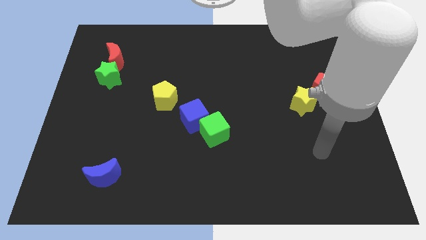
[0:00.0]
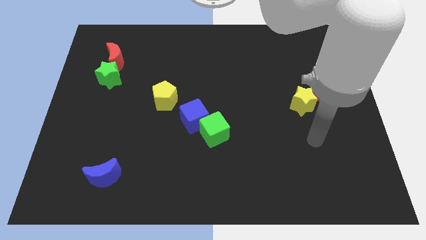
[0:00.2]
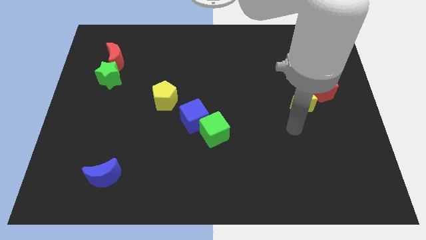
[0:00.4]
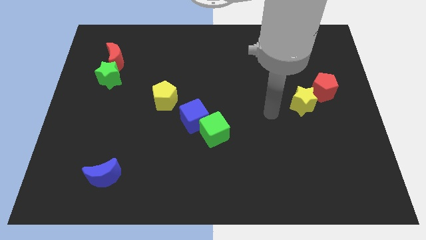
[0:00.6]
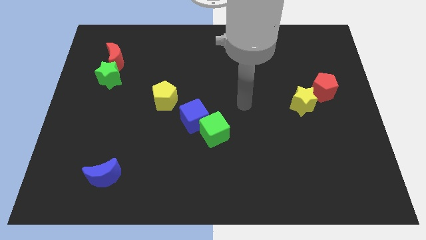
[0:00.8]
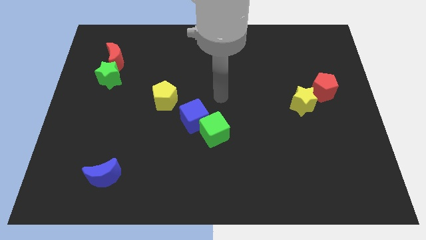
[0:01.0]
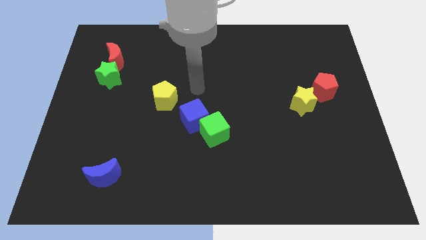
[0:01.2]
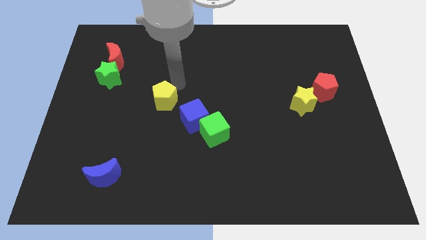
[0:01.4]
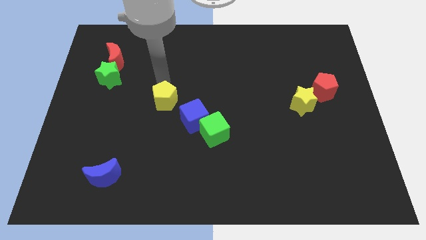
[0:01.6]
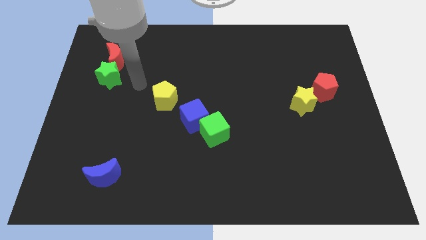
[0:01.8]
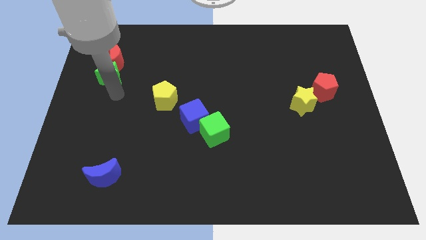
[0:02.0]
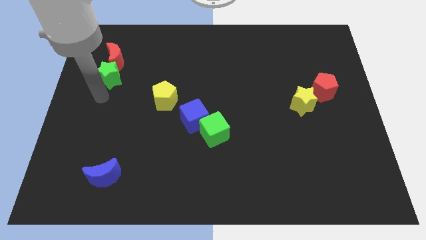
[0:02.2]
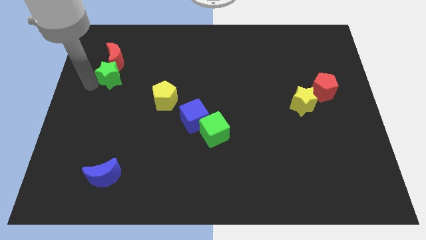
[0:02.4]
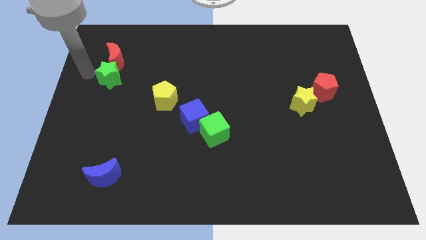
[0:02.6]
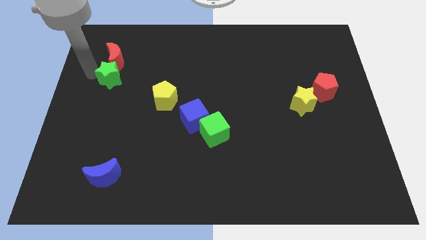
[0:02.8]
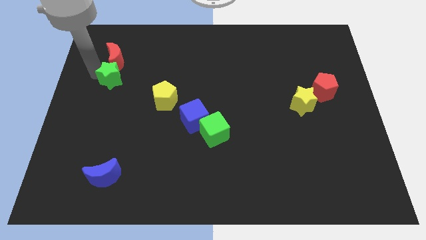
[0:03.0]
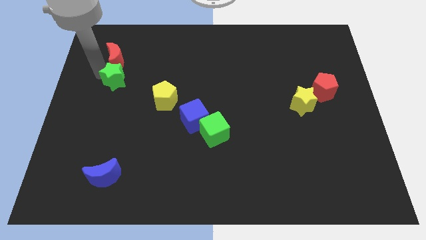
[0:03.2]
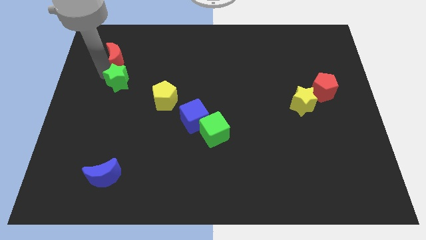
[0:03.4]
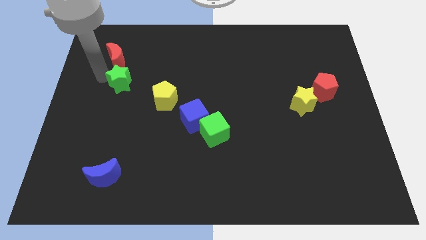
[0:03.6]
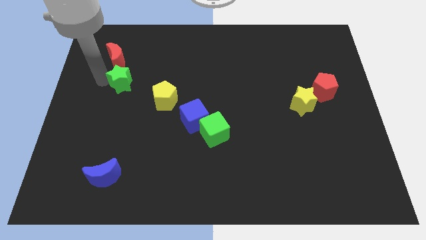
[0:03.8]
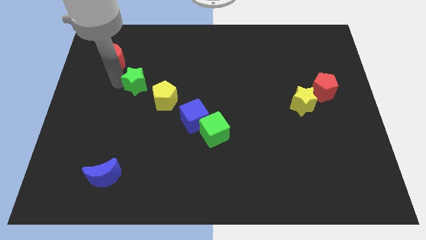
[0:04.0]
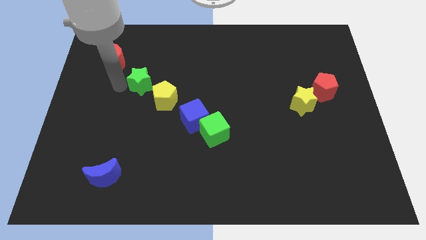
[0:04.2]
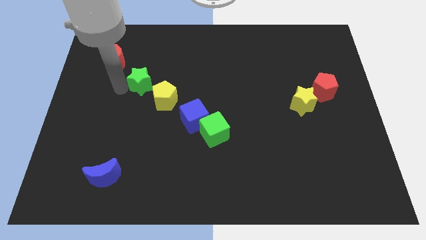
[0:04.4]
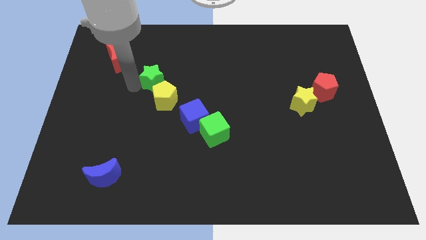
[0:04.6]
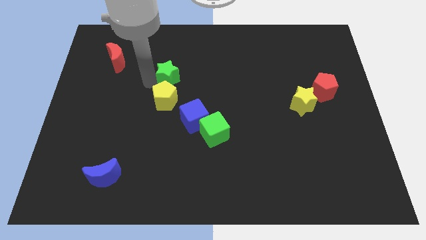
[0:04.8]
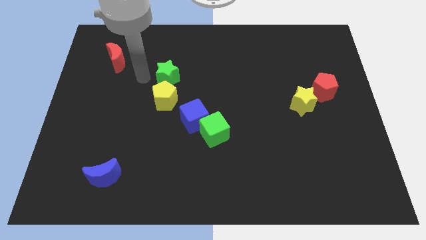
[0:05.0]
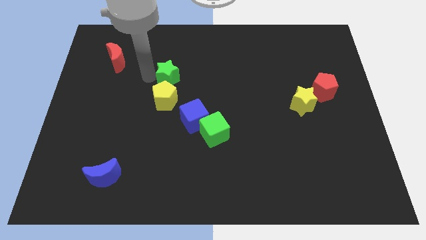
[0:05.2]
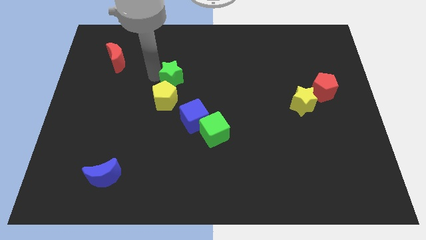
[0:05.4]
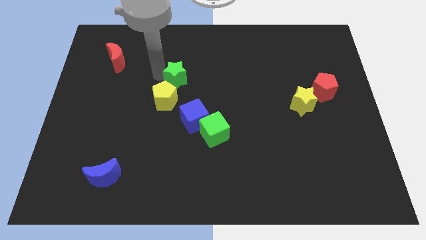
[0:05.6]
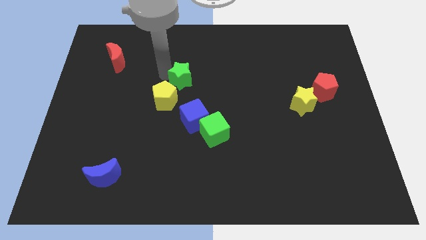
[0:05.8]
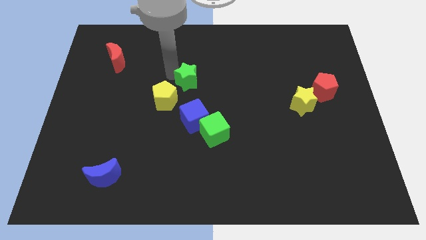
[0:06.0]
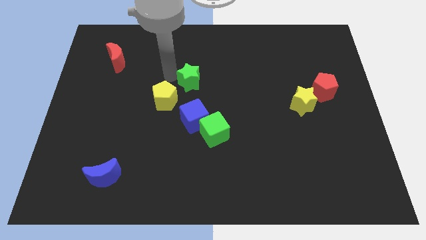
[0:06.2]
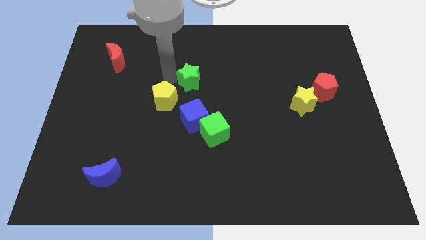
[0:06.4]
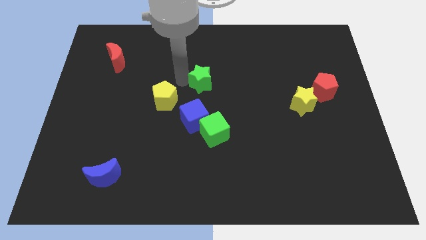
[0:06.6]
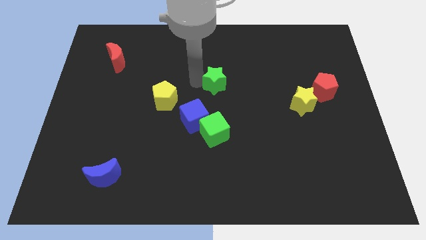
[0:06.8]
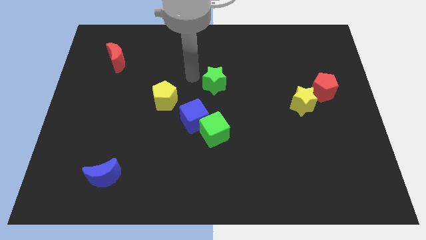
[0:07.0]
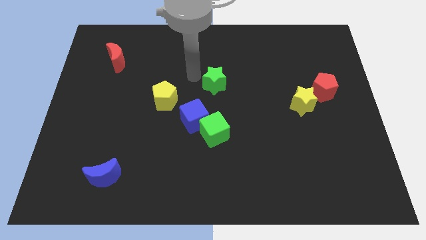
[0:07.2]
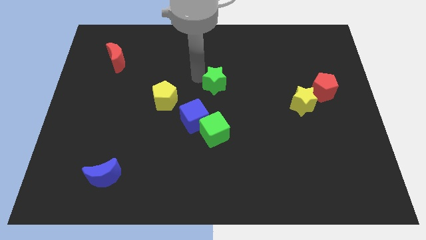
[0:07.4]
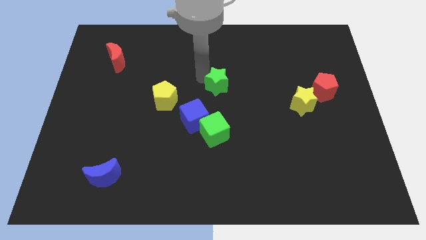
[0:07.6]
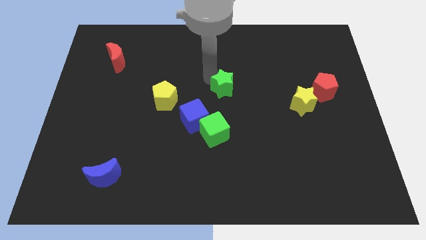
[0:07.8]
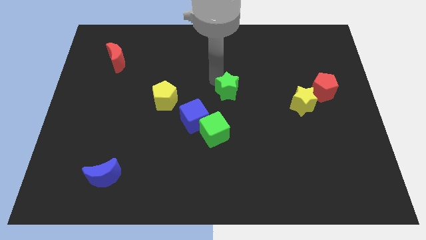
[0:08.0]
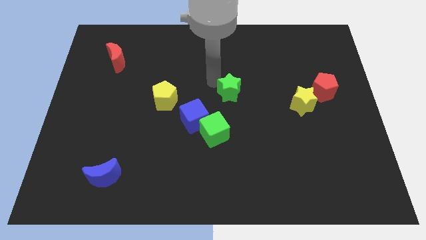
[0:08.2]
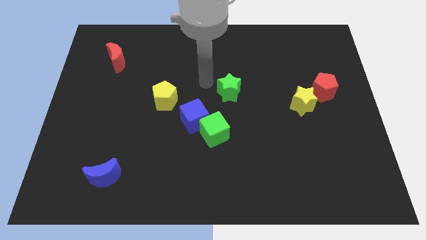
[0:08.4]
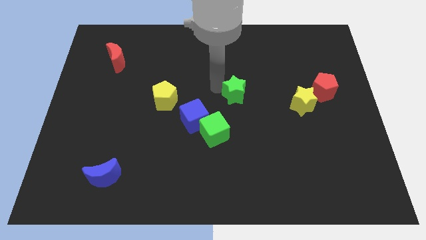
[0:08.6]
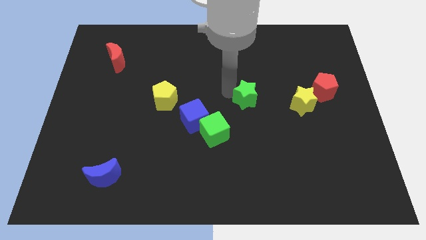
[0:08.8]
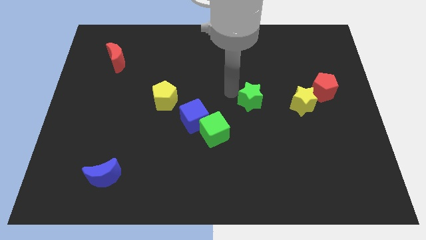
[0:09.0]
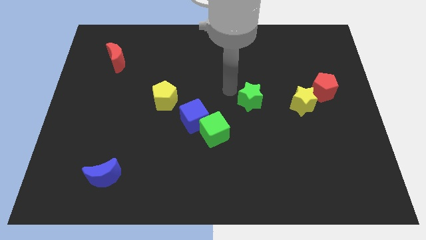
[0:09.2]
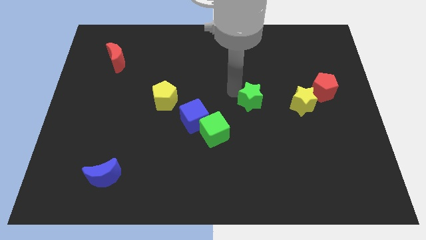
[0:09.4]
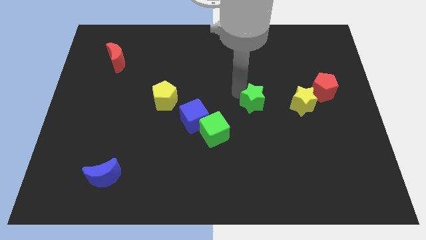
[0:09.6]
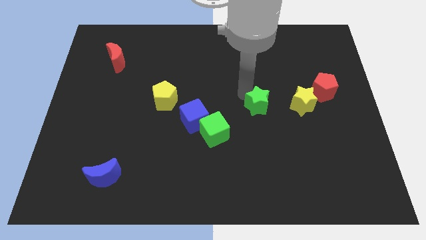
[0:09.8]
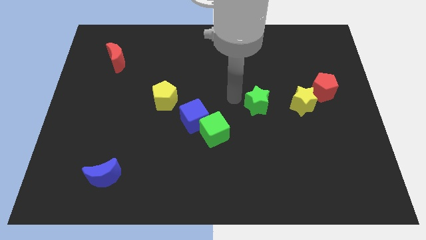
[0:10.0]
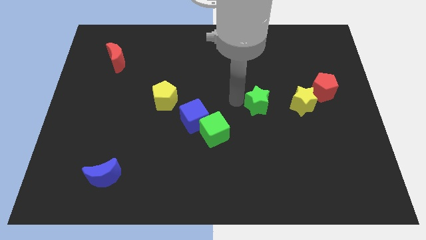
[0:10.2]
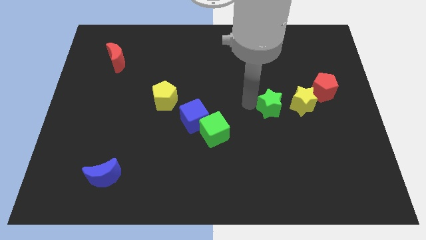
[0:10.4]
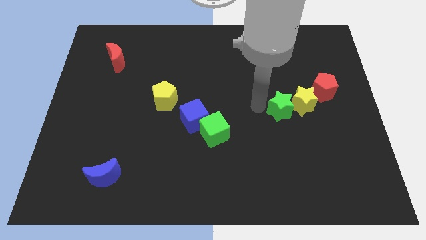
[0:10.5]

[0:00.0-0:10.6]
push the green star close to the yellow star
